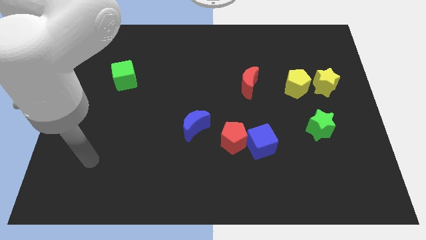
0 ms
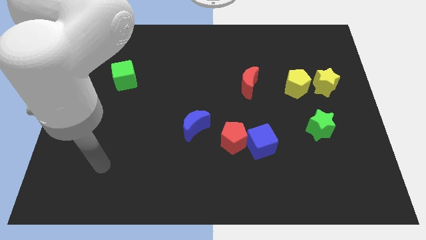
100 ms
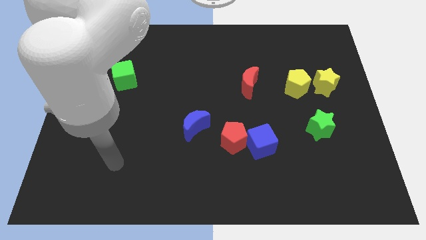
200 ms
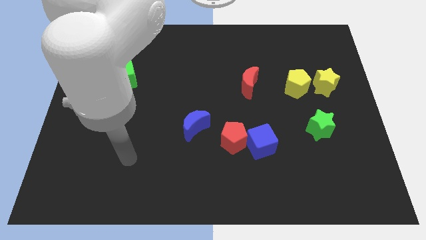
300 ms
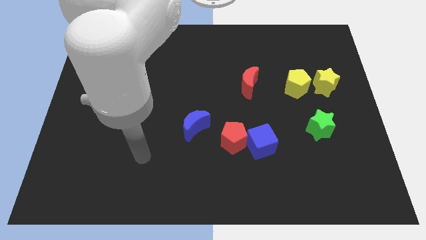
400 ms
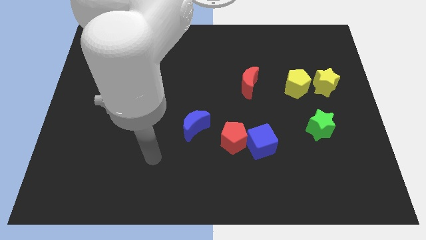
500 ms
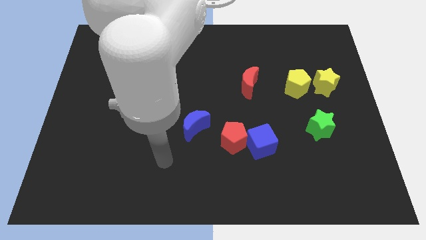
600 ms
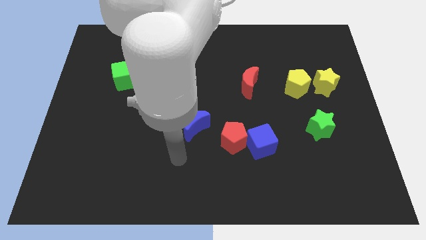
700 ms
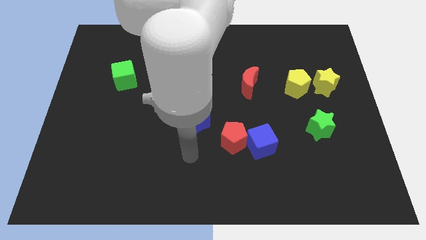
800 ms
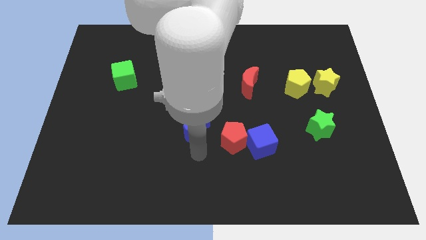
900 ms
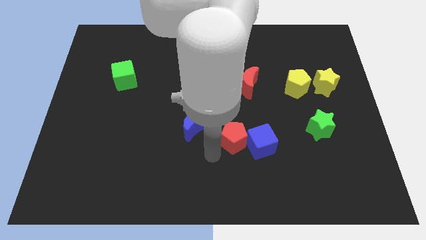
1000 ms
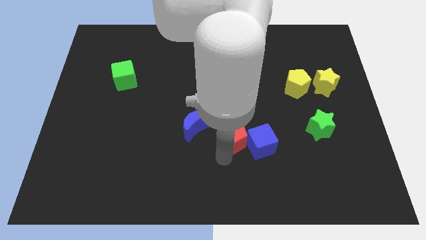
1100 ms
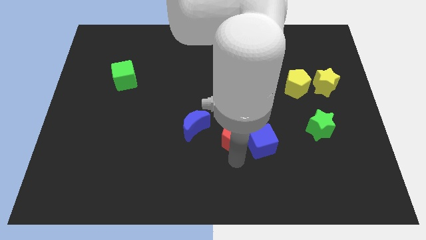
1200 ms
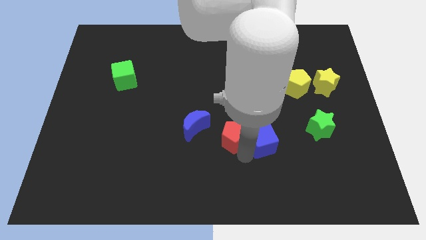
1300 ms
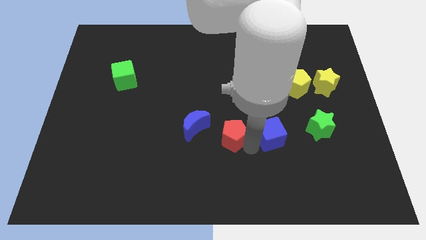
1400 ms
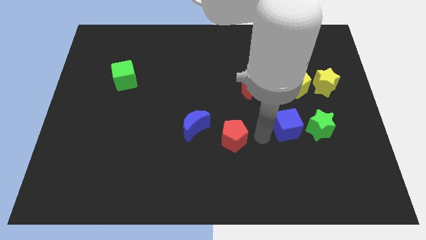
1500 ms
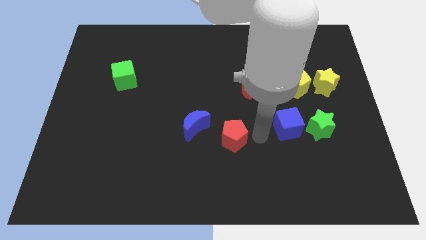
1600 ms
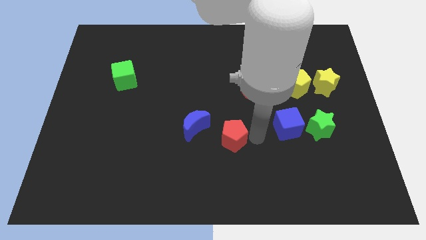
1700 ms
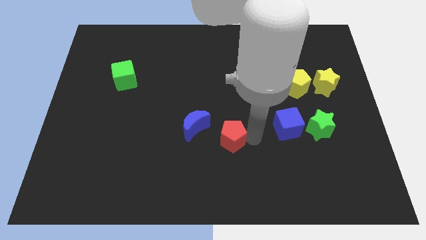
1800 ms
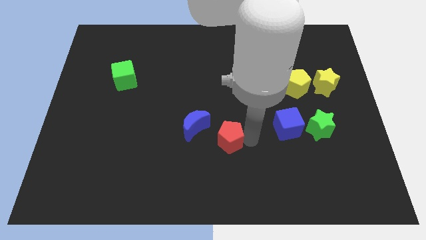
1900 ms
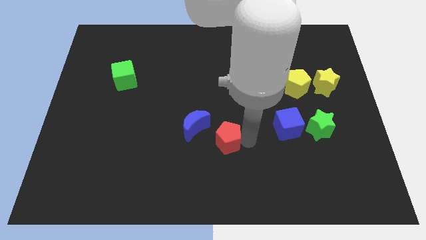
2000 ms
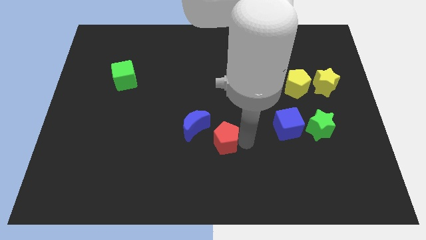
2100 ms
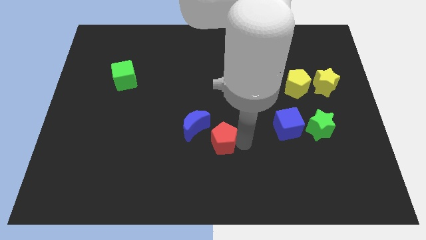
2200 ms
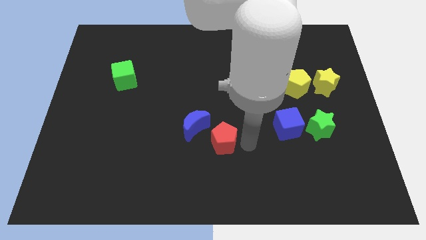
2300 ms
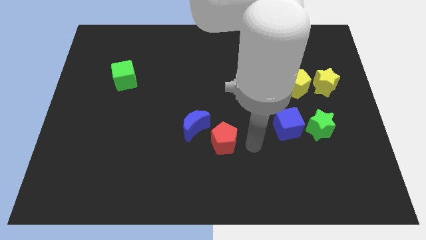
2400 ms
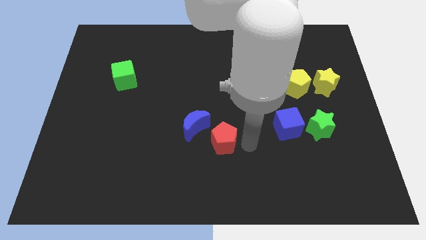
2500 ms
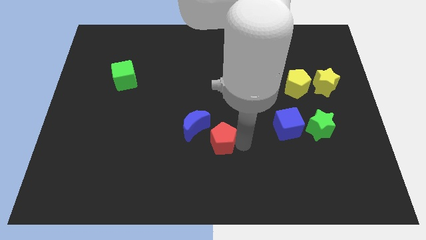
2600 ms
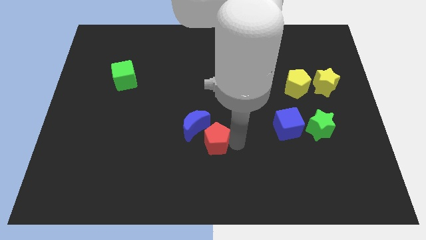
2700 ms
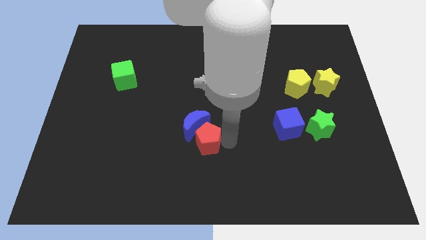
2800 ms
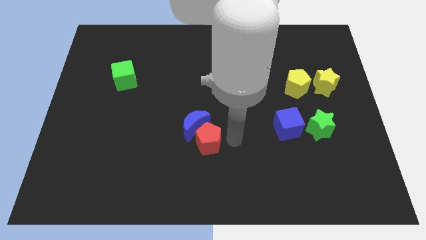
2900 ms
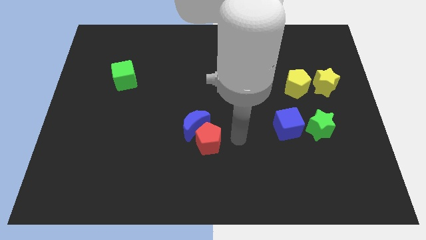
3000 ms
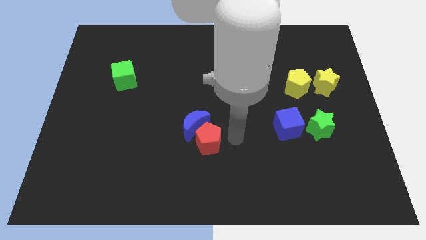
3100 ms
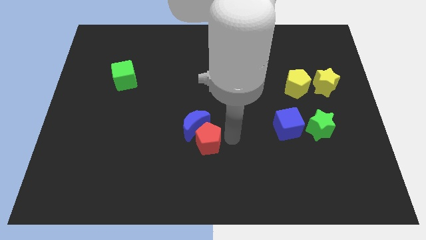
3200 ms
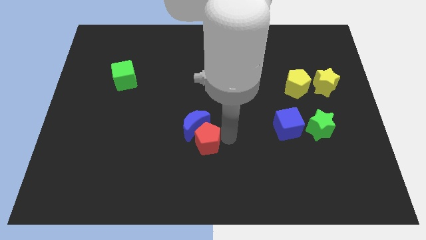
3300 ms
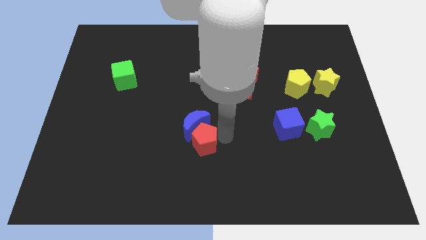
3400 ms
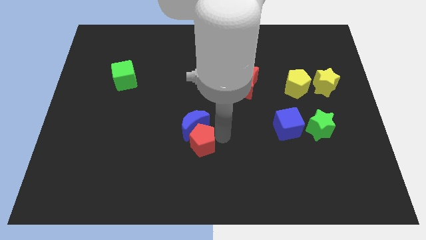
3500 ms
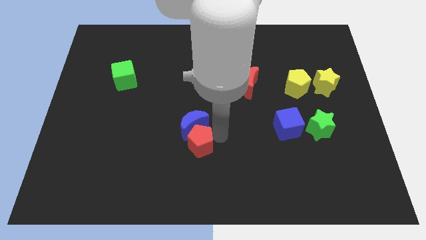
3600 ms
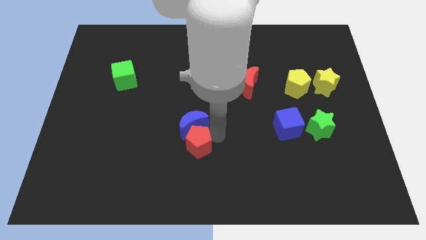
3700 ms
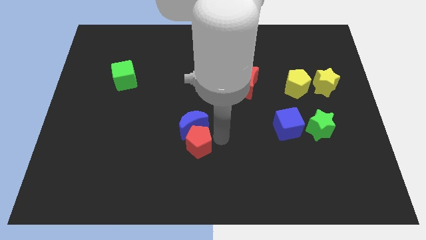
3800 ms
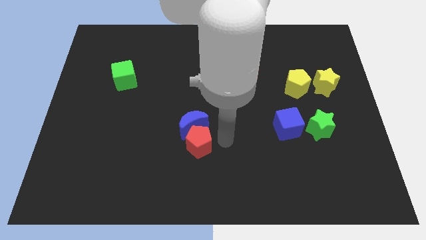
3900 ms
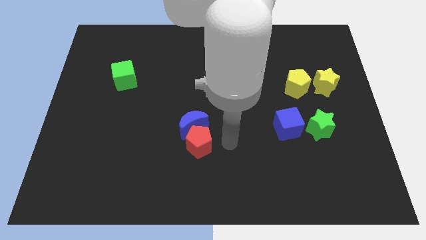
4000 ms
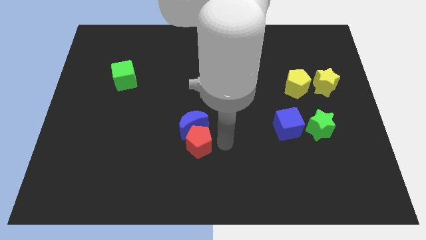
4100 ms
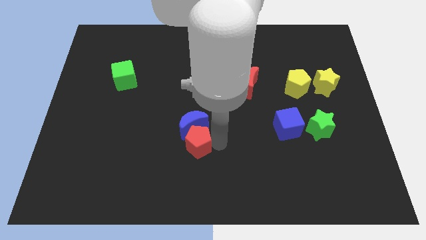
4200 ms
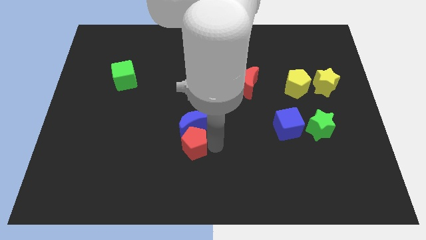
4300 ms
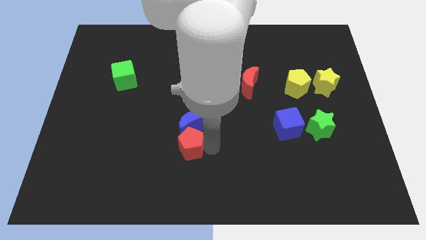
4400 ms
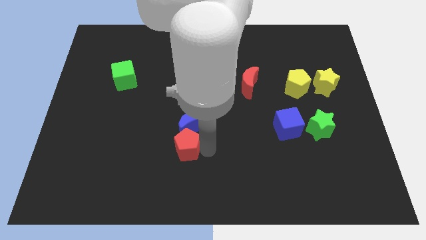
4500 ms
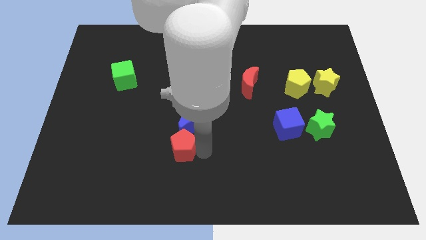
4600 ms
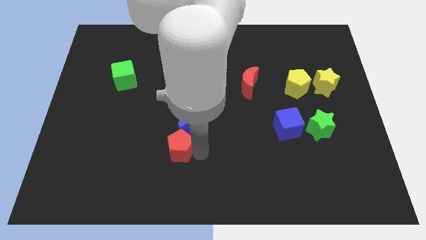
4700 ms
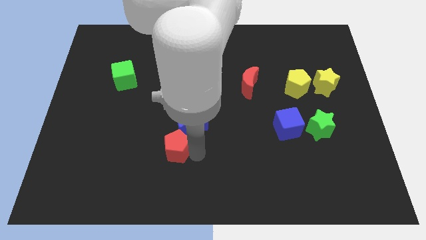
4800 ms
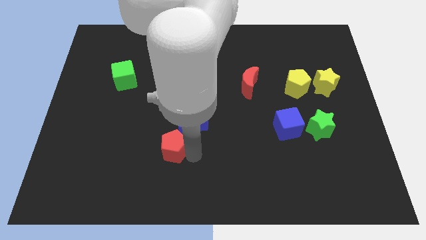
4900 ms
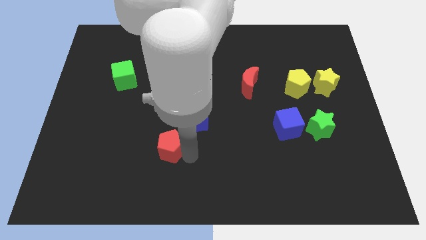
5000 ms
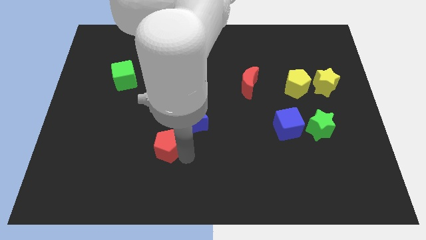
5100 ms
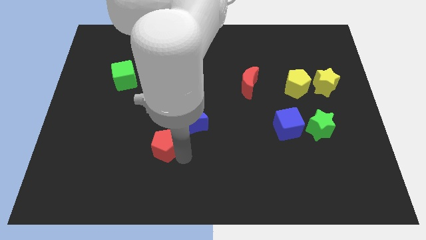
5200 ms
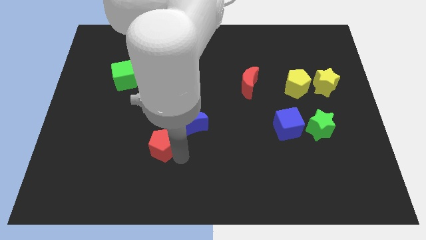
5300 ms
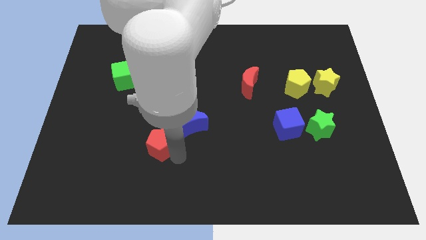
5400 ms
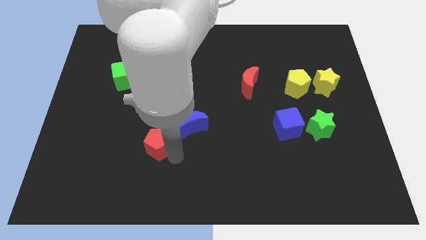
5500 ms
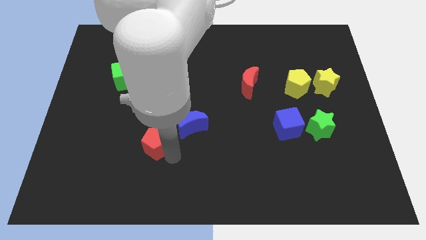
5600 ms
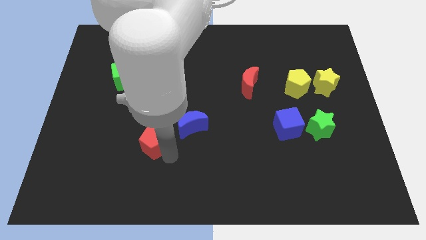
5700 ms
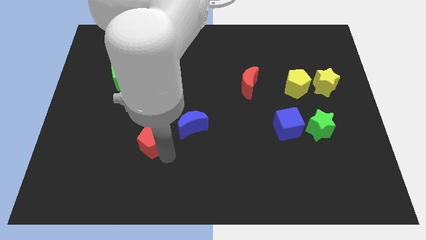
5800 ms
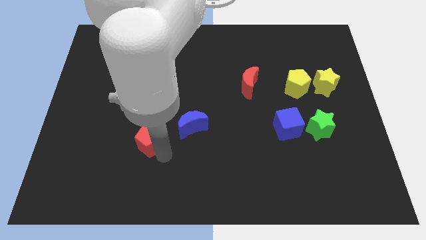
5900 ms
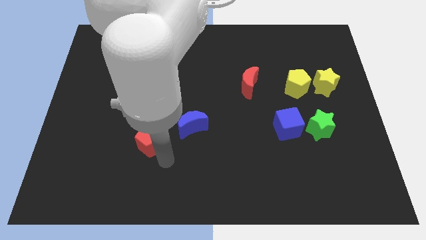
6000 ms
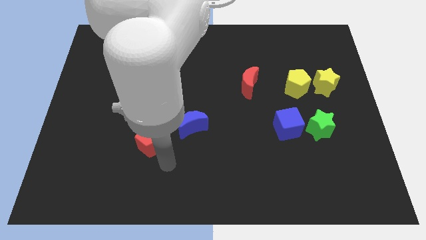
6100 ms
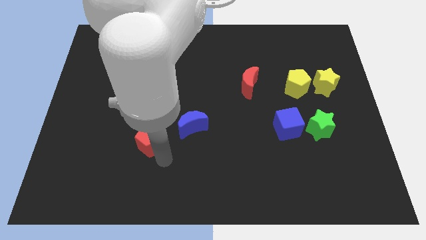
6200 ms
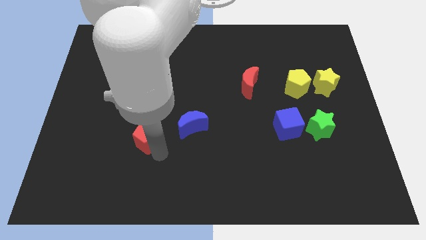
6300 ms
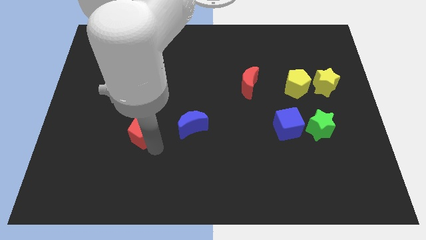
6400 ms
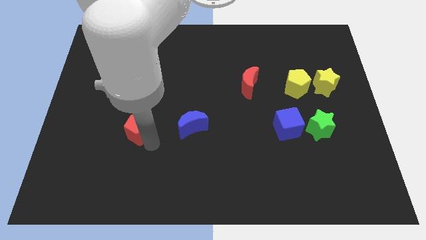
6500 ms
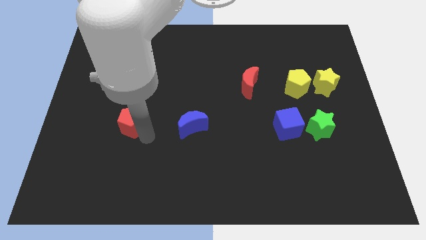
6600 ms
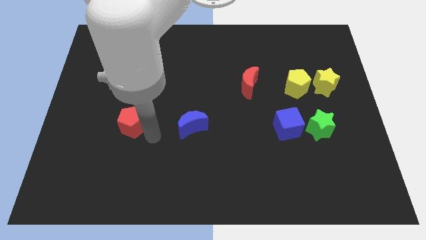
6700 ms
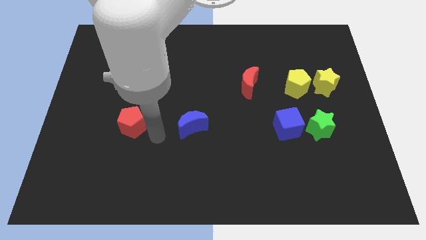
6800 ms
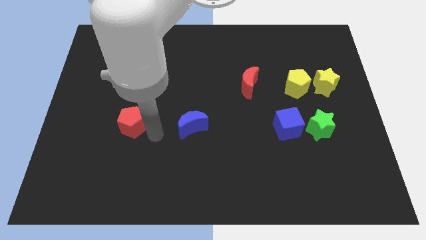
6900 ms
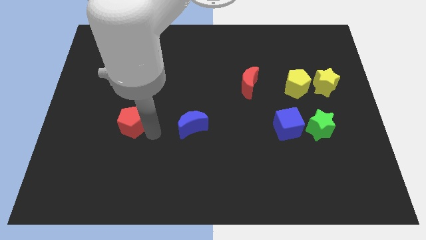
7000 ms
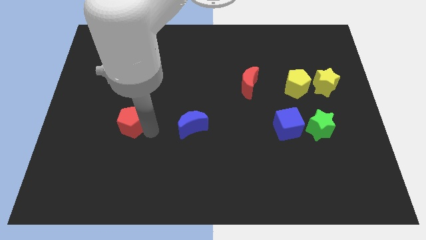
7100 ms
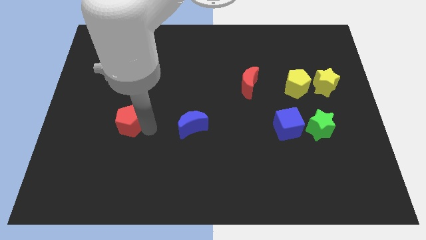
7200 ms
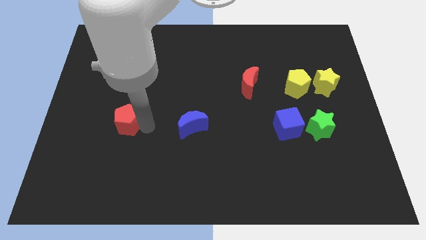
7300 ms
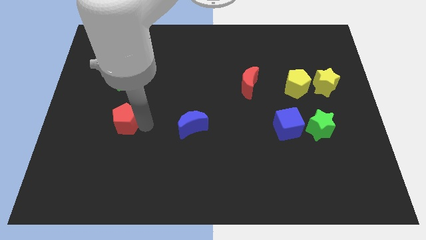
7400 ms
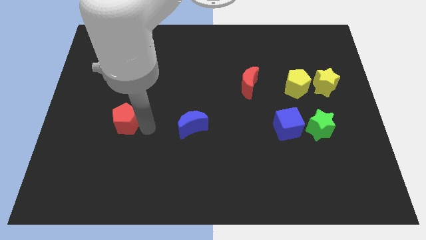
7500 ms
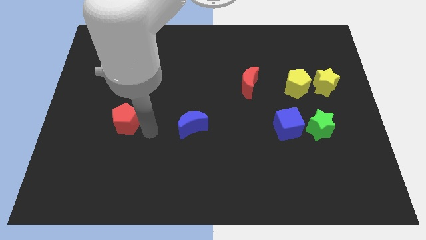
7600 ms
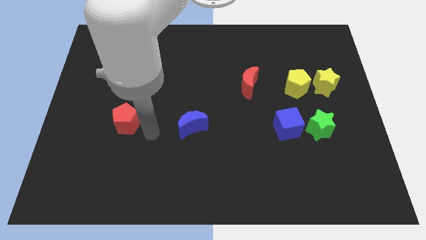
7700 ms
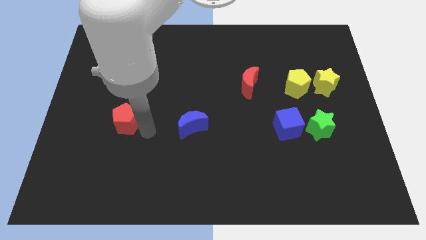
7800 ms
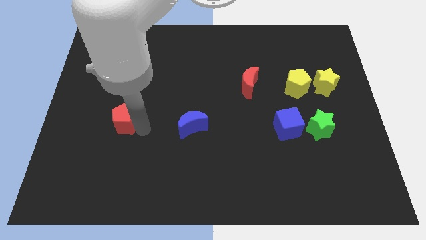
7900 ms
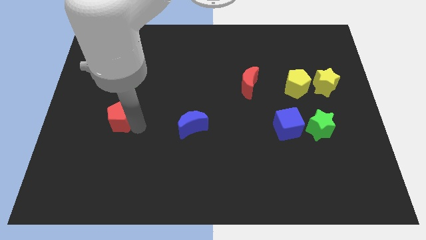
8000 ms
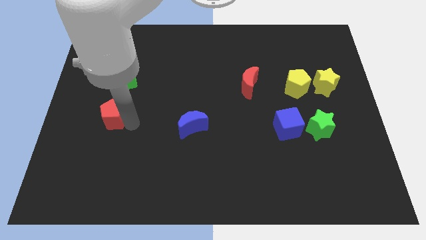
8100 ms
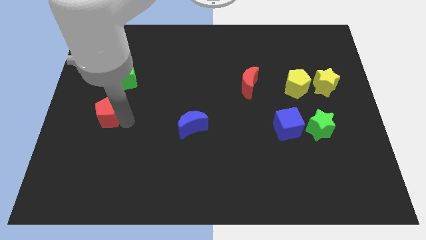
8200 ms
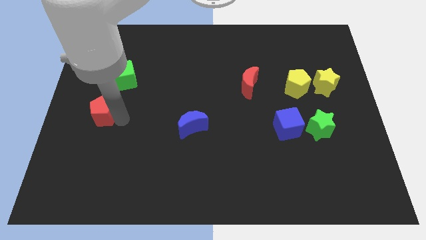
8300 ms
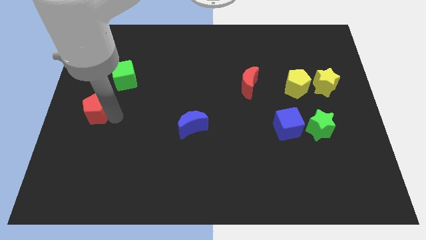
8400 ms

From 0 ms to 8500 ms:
push the red pentagon to the center left
